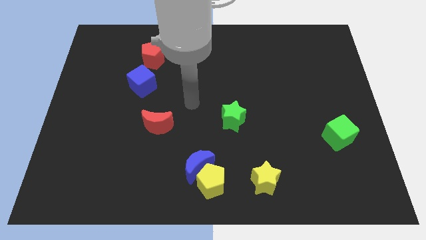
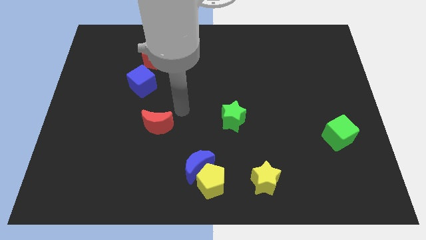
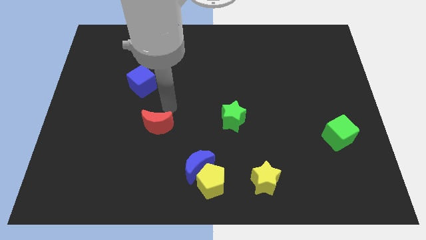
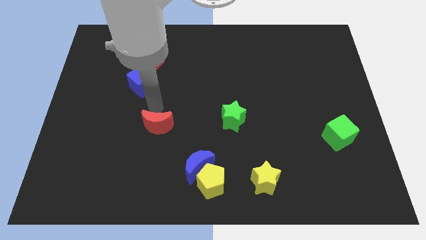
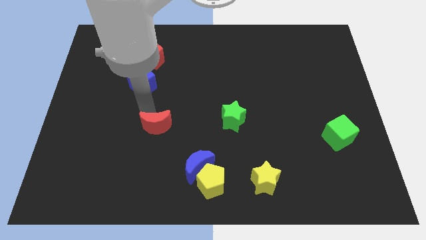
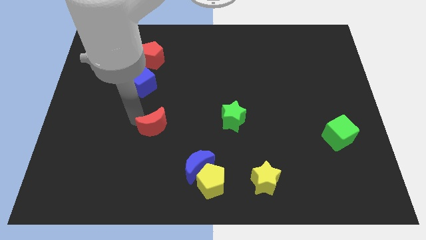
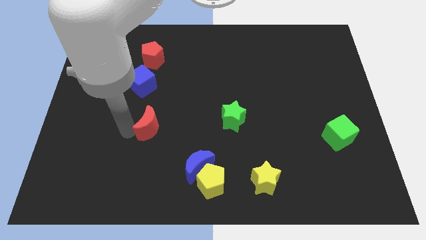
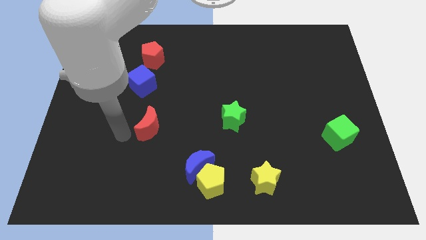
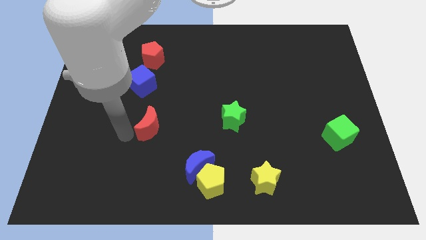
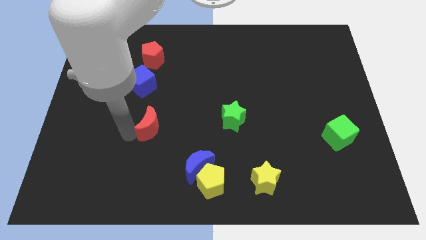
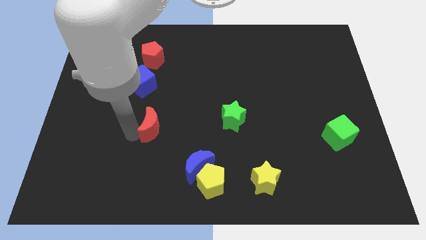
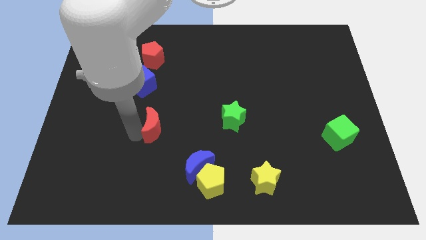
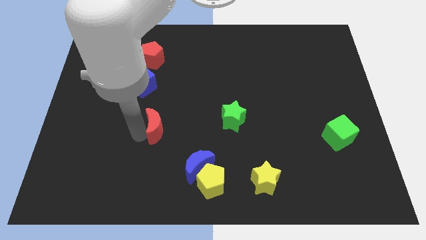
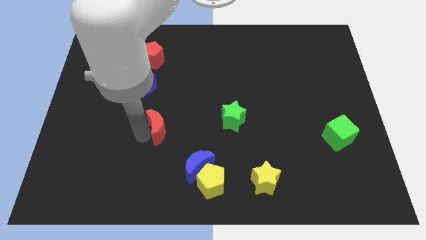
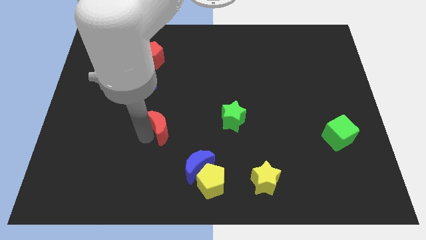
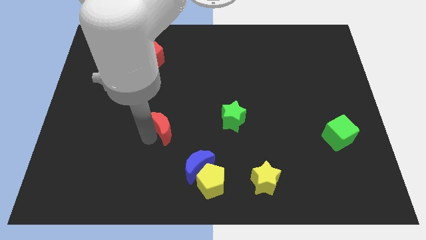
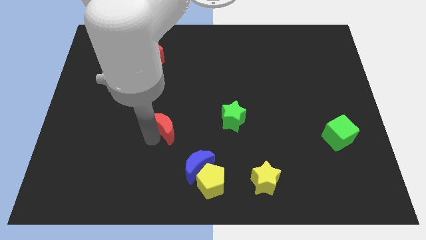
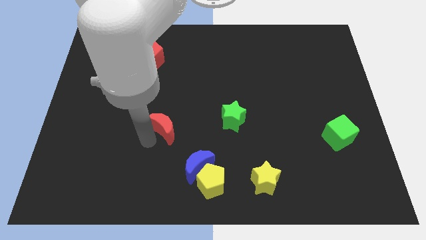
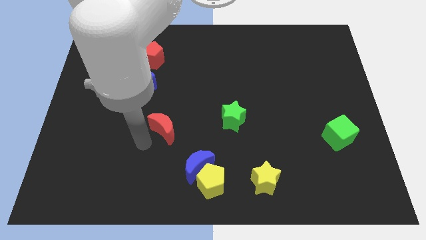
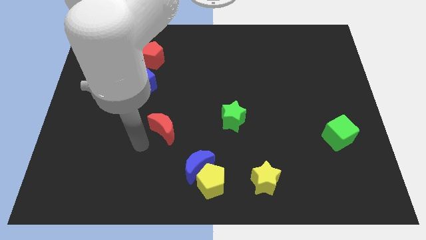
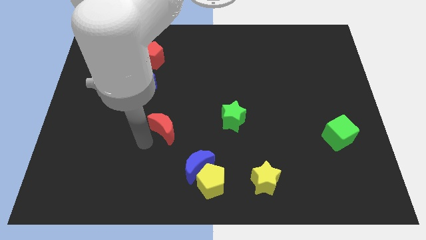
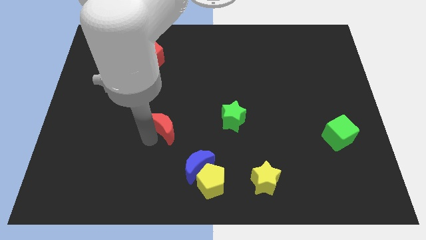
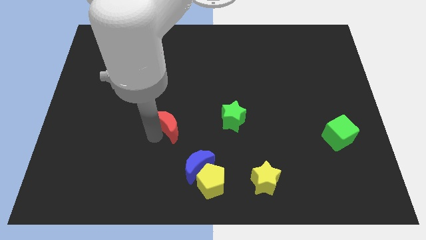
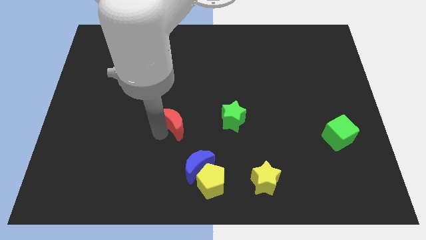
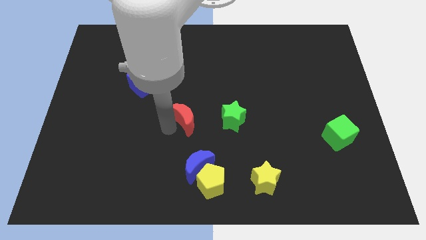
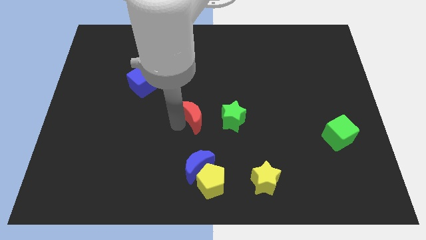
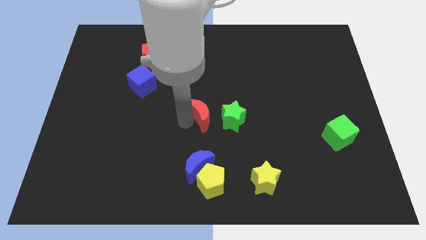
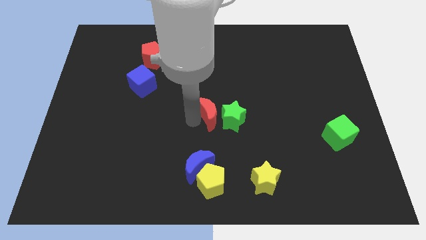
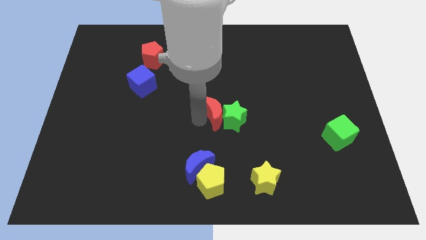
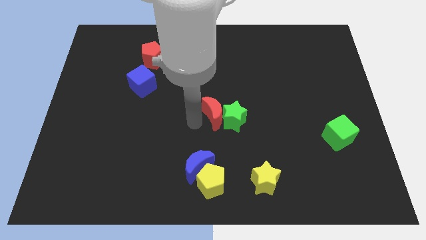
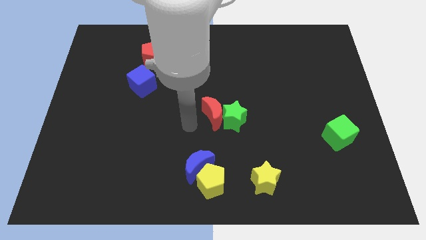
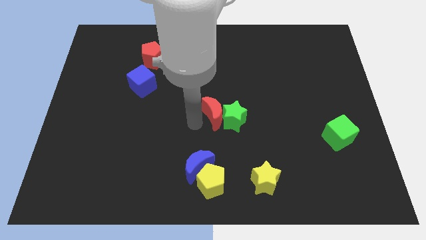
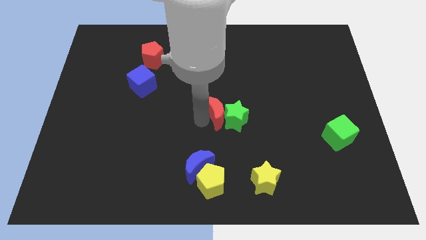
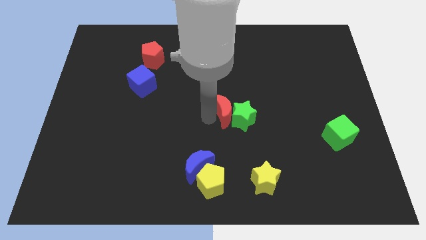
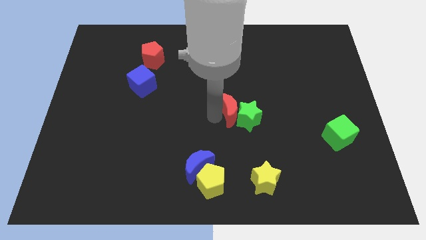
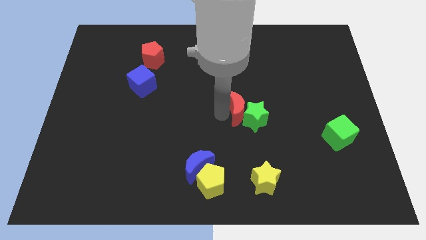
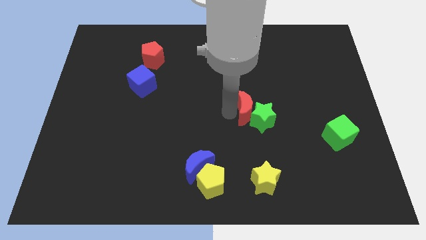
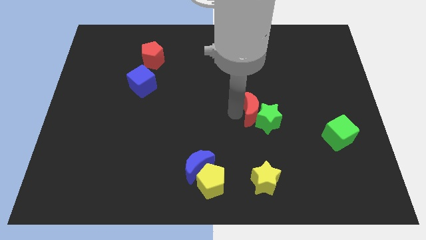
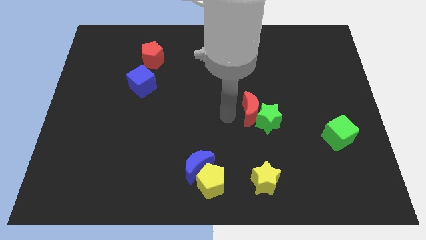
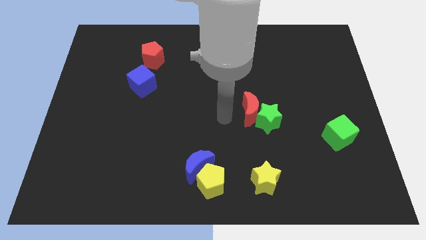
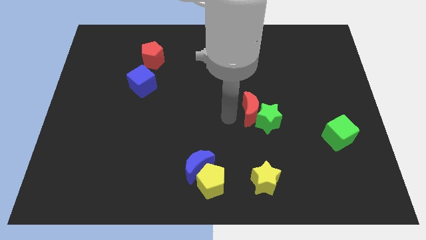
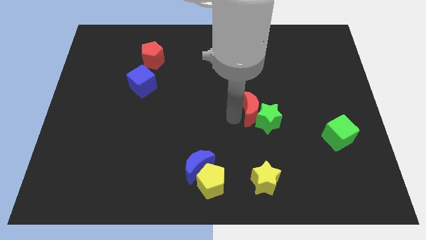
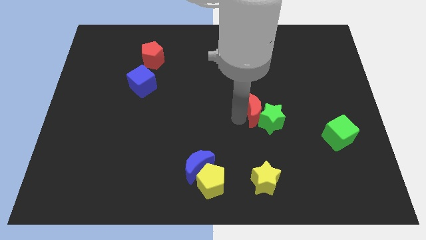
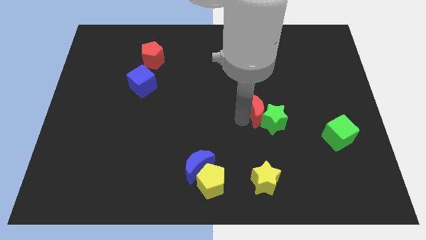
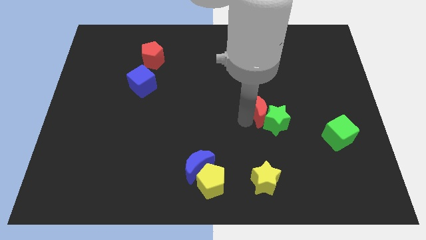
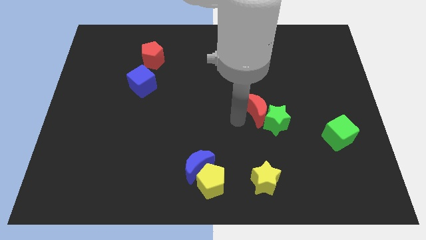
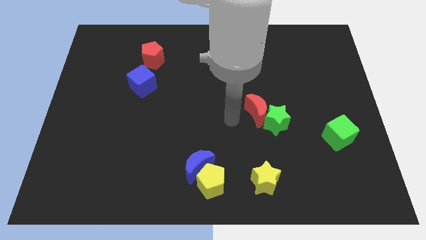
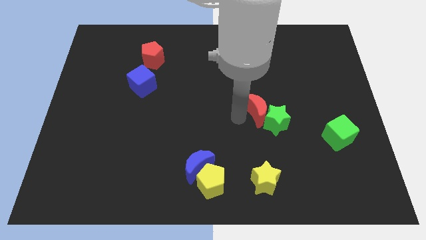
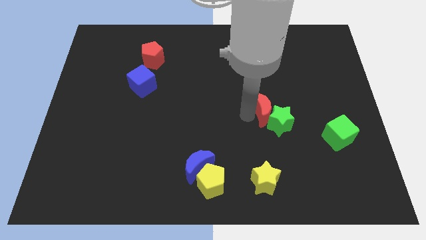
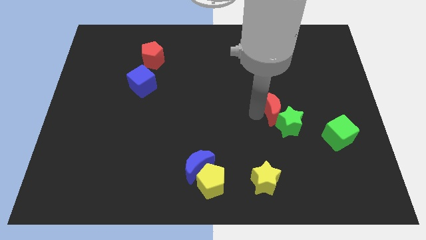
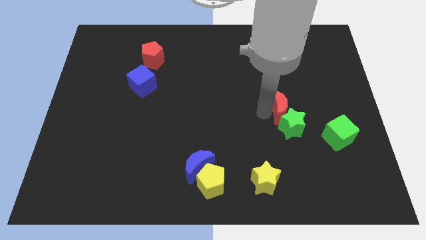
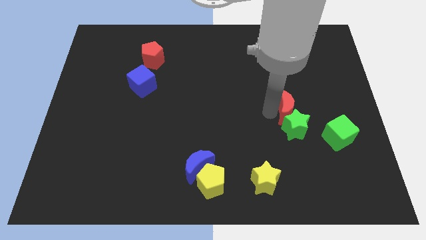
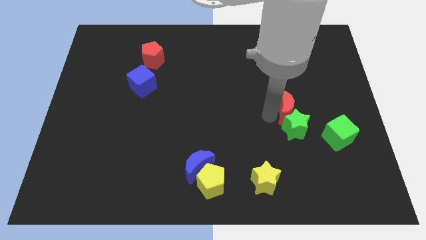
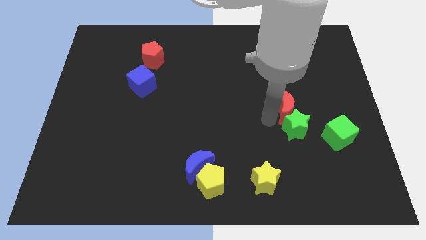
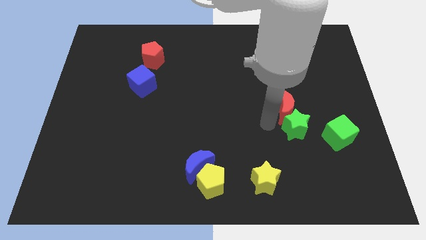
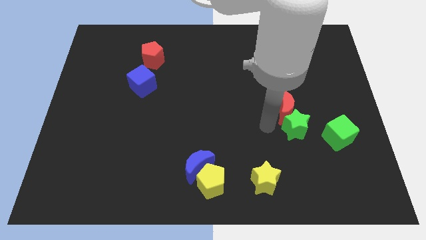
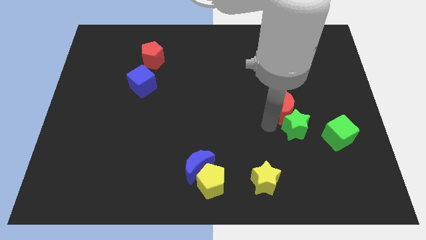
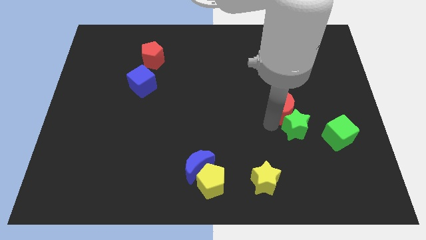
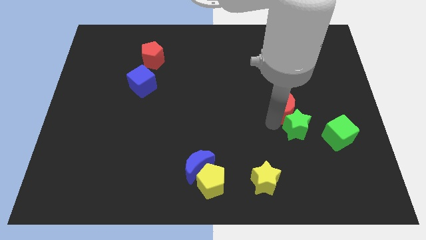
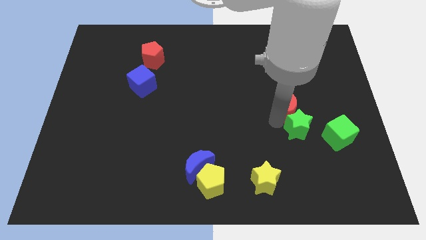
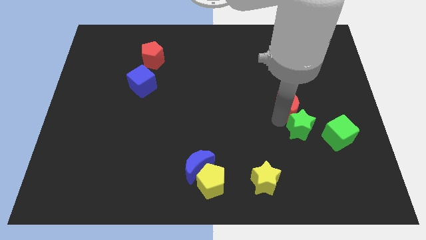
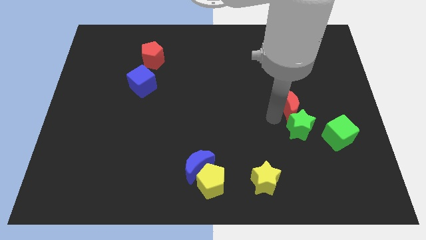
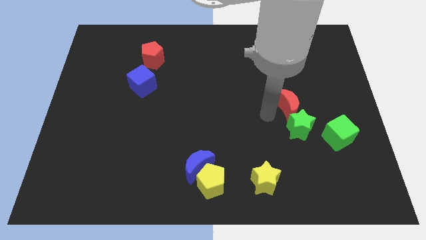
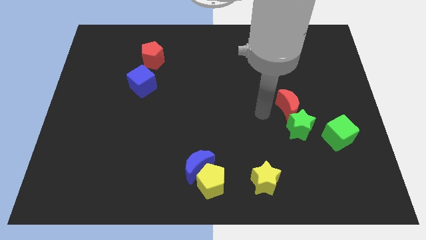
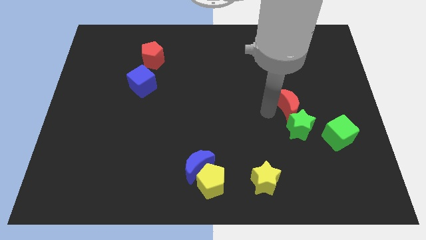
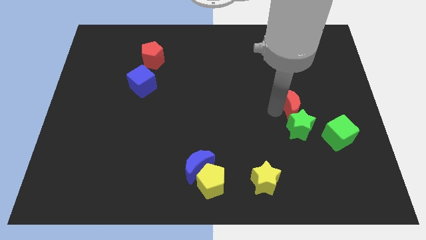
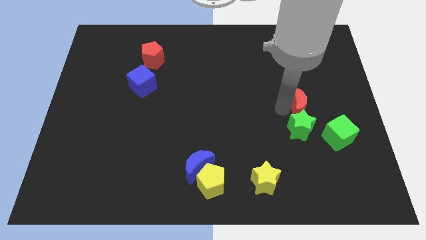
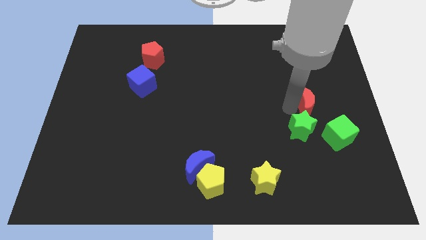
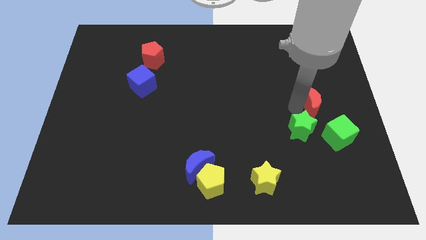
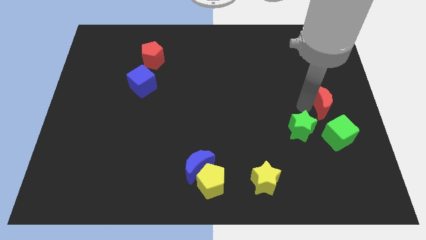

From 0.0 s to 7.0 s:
move the red moon to the right side
